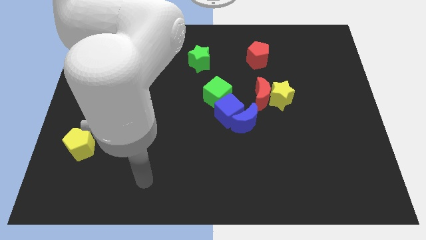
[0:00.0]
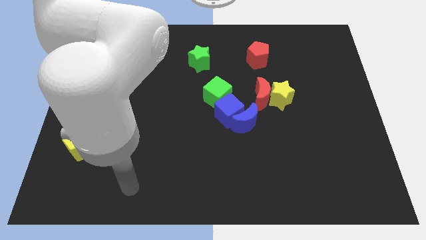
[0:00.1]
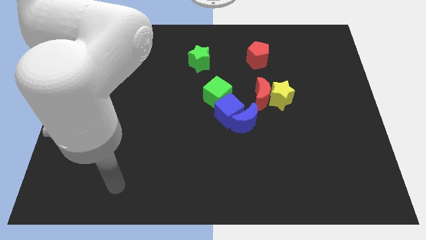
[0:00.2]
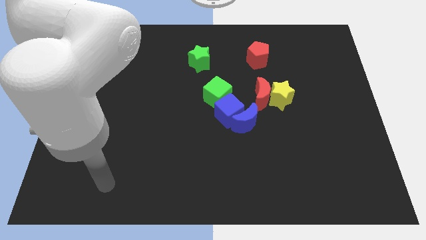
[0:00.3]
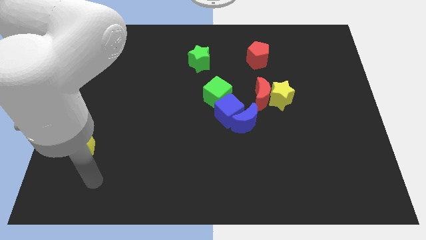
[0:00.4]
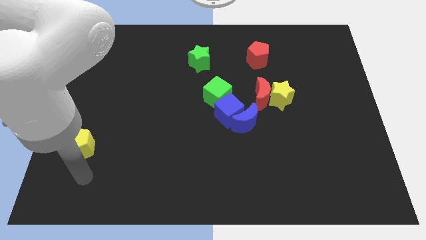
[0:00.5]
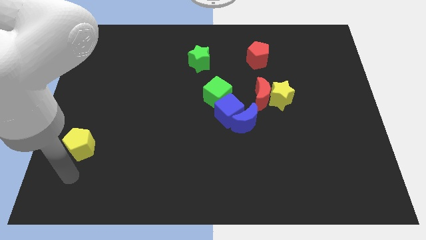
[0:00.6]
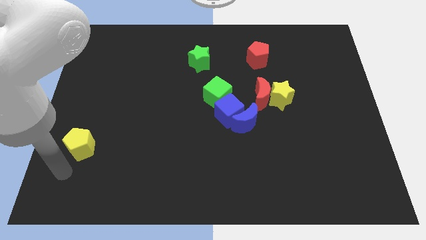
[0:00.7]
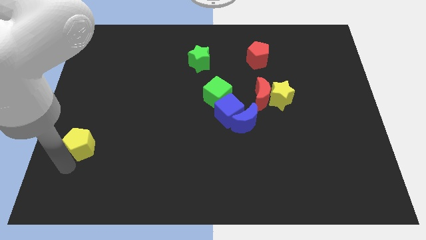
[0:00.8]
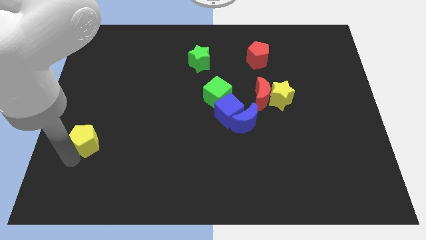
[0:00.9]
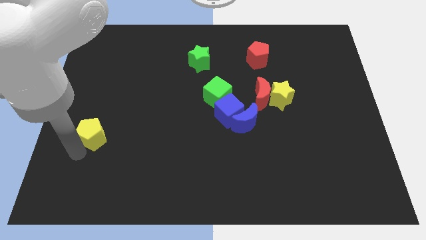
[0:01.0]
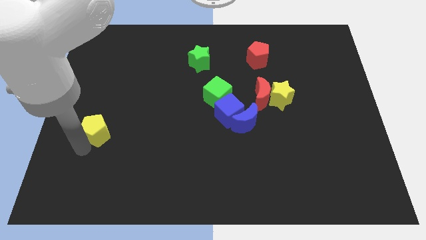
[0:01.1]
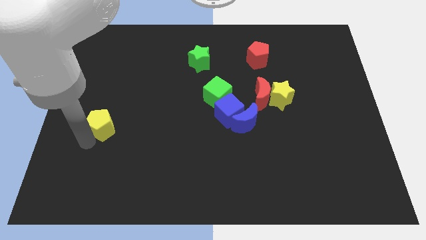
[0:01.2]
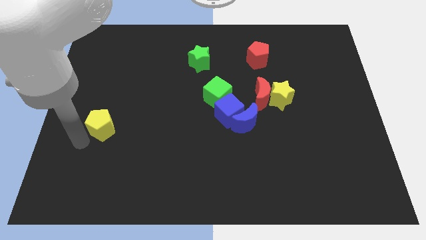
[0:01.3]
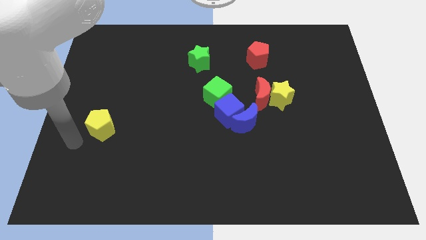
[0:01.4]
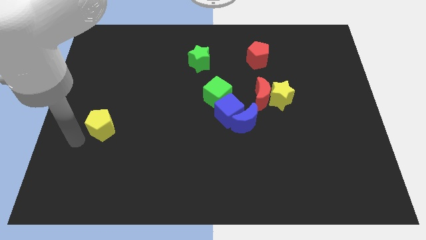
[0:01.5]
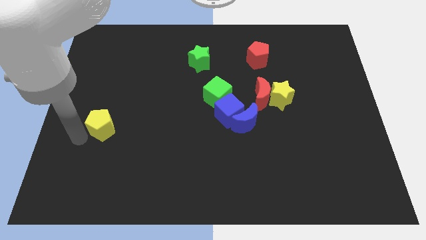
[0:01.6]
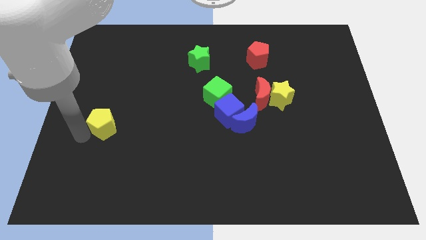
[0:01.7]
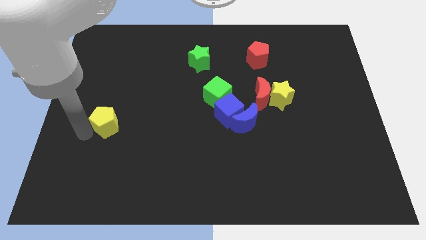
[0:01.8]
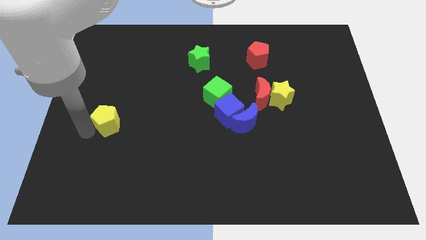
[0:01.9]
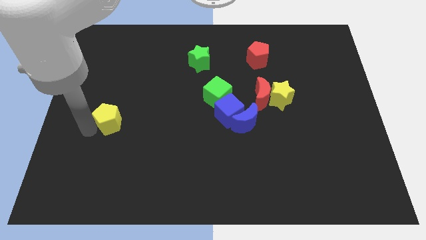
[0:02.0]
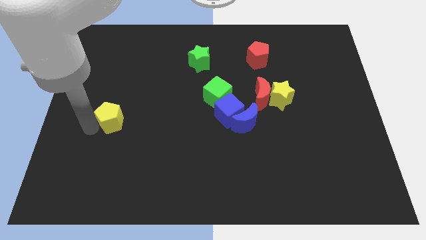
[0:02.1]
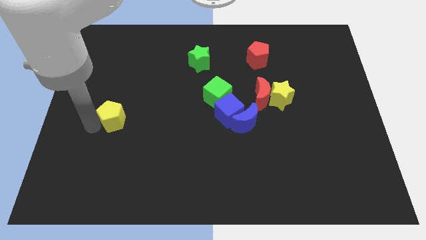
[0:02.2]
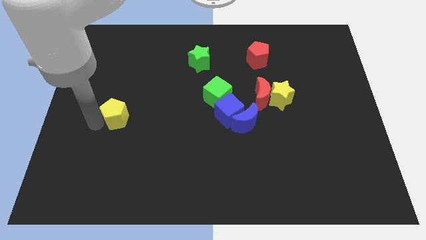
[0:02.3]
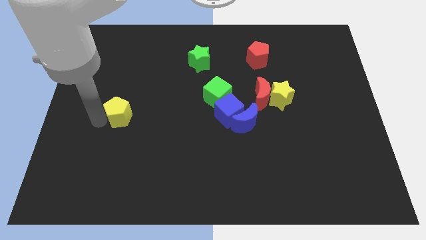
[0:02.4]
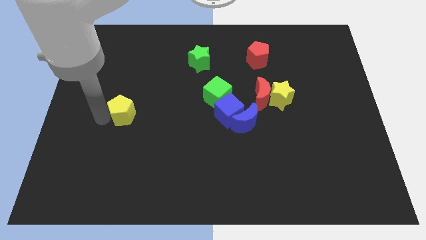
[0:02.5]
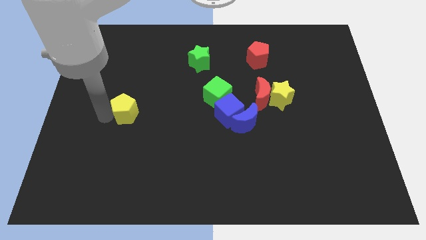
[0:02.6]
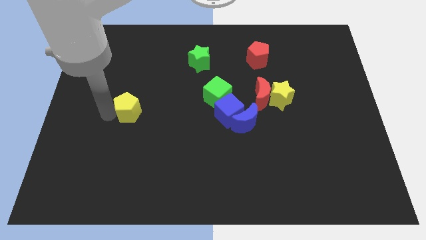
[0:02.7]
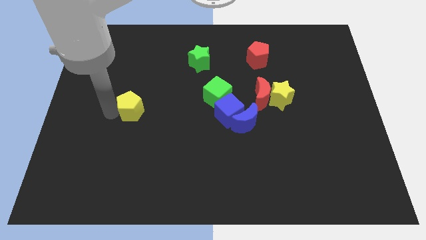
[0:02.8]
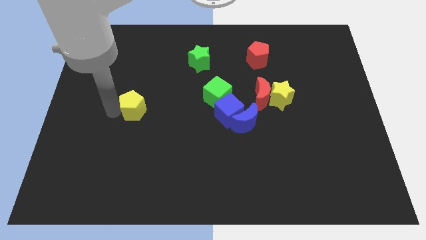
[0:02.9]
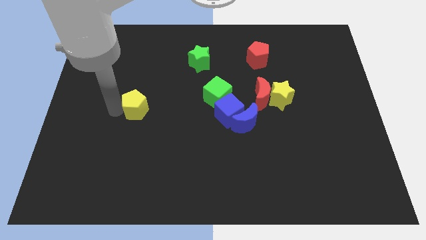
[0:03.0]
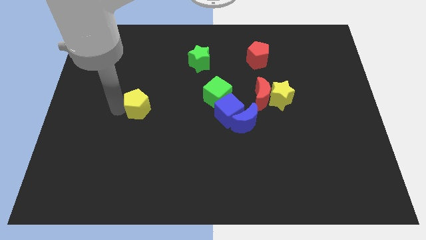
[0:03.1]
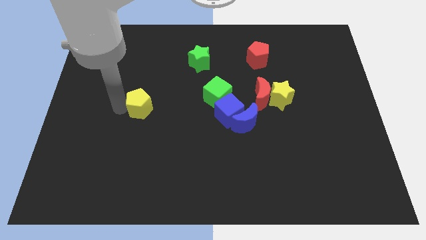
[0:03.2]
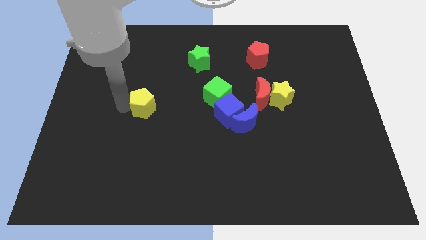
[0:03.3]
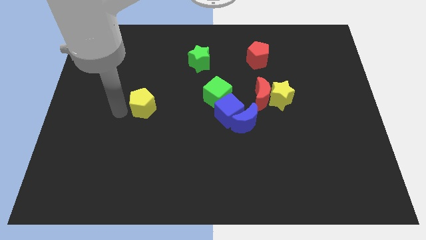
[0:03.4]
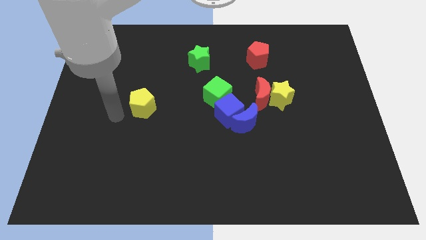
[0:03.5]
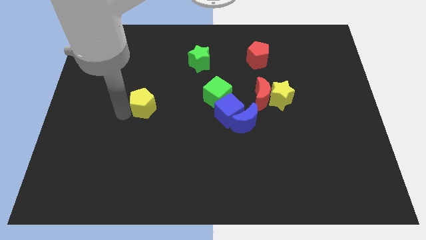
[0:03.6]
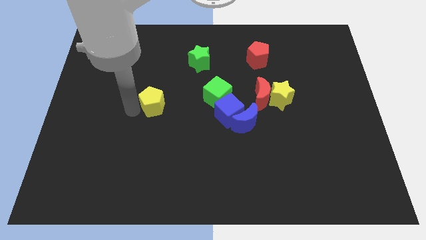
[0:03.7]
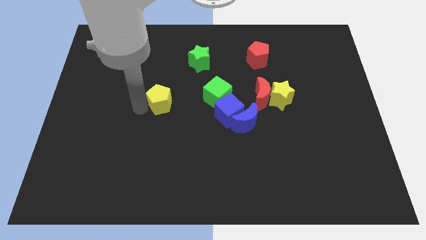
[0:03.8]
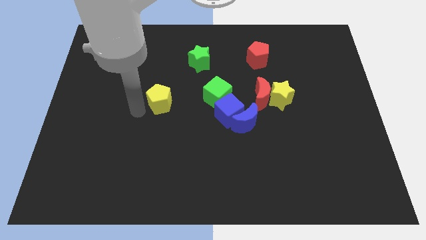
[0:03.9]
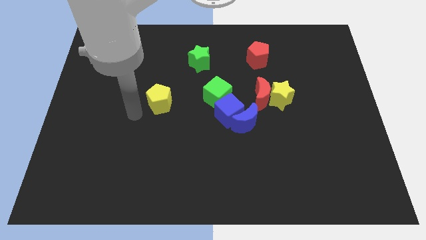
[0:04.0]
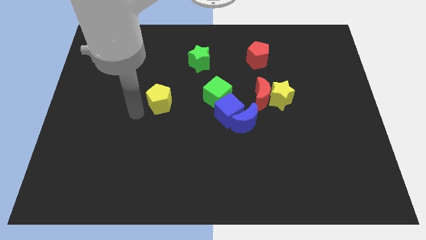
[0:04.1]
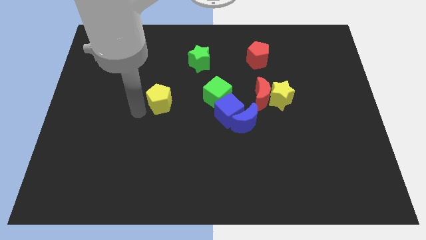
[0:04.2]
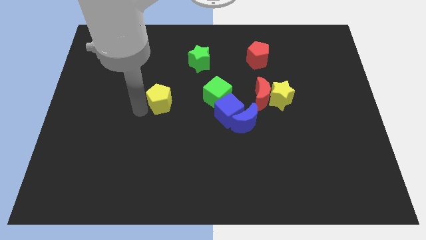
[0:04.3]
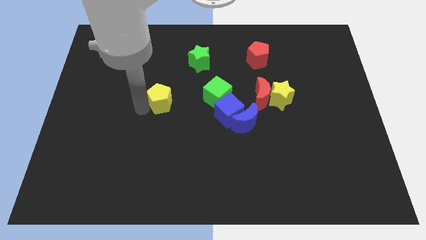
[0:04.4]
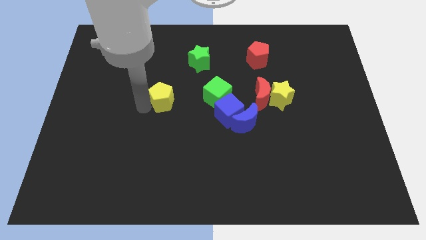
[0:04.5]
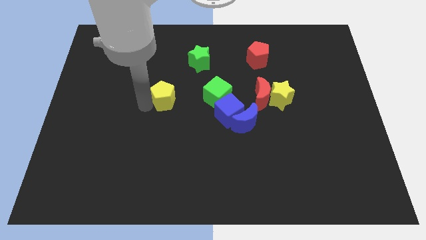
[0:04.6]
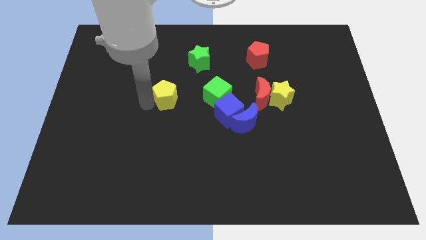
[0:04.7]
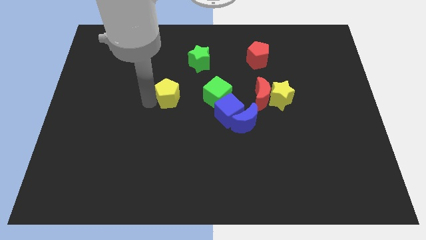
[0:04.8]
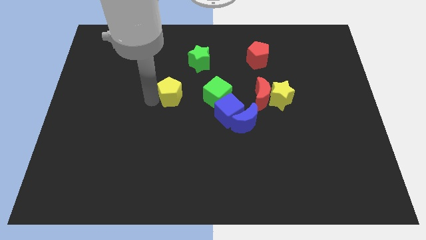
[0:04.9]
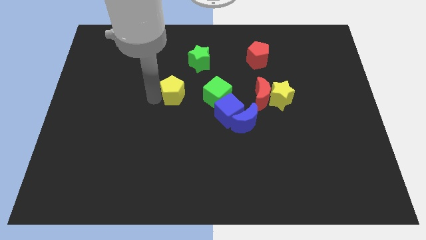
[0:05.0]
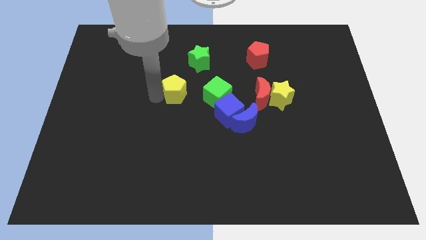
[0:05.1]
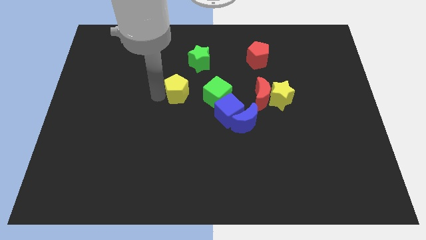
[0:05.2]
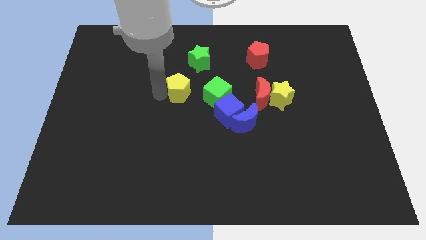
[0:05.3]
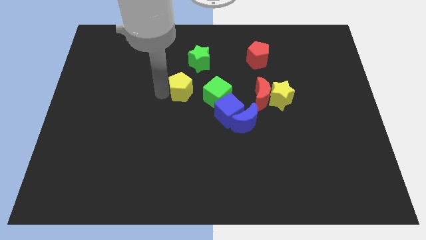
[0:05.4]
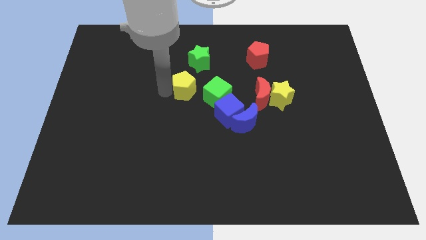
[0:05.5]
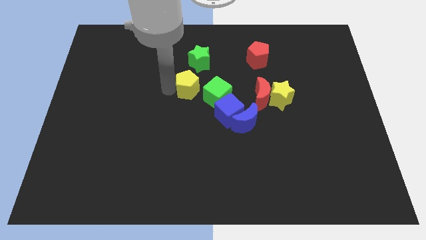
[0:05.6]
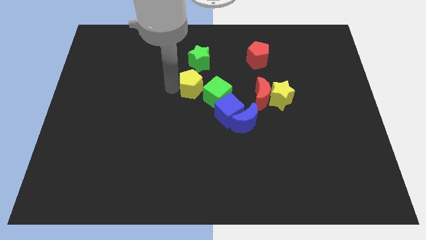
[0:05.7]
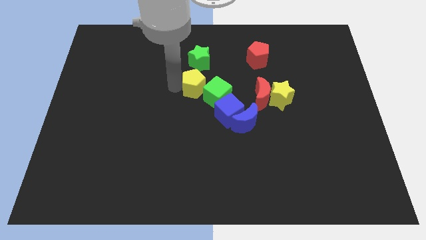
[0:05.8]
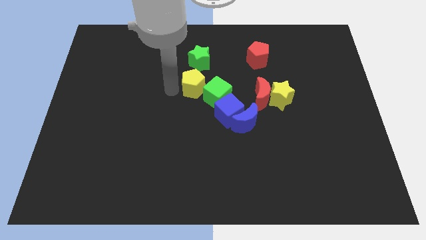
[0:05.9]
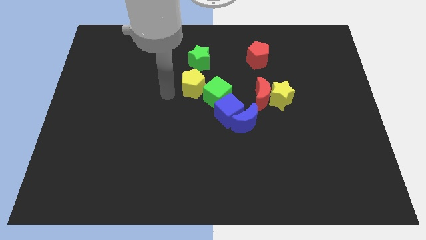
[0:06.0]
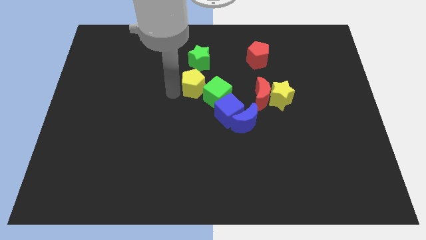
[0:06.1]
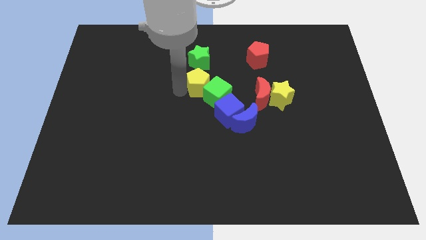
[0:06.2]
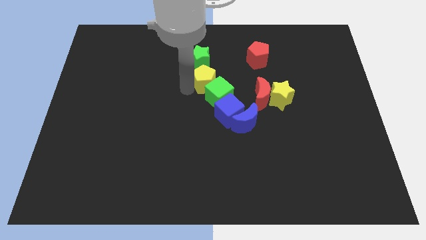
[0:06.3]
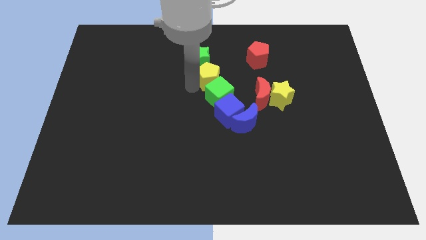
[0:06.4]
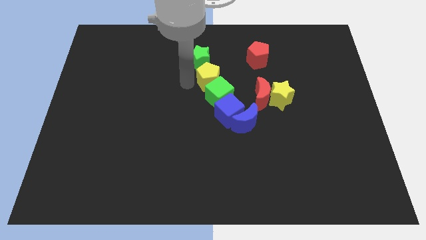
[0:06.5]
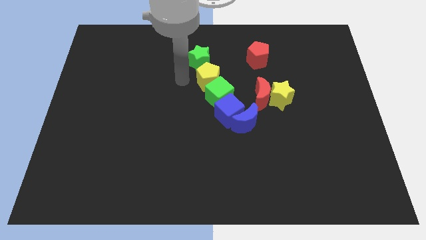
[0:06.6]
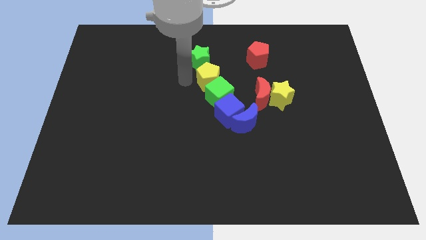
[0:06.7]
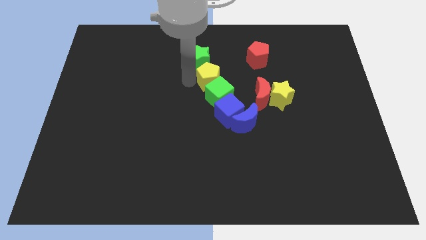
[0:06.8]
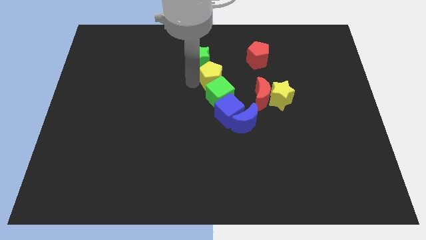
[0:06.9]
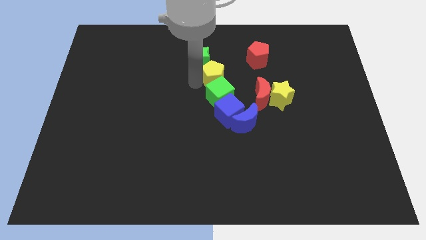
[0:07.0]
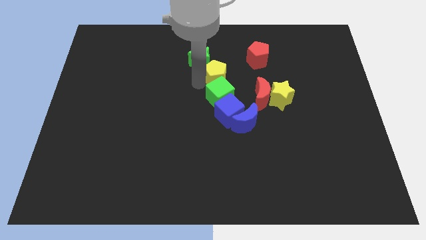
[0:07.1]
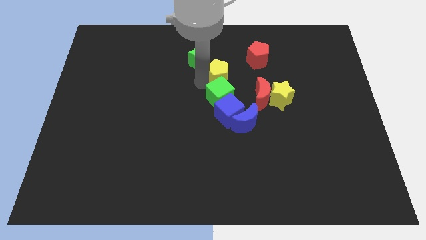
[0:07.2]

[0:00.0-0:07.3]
put the yellow pentagon to the top right side of the green cube
